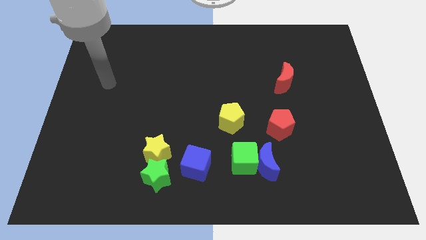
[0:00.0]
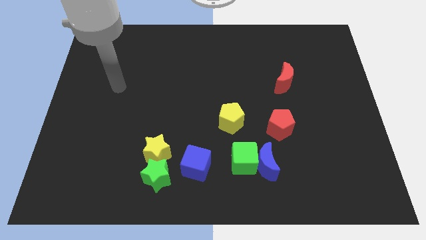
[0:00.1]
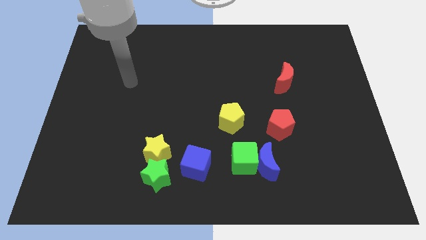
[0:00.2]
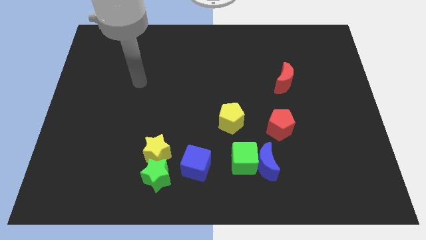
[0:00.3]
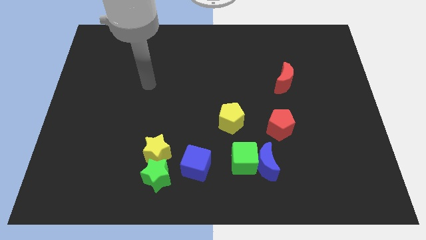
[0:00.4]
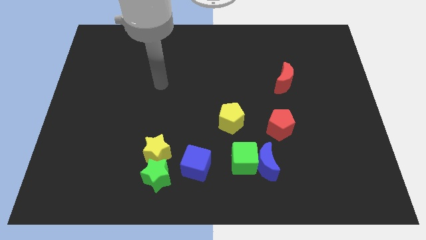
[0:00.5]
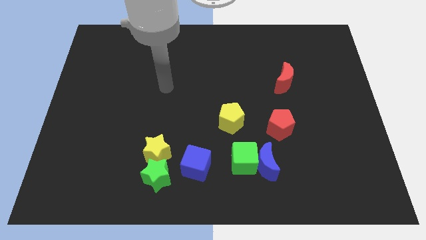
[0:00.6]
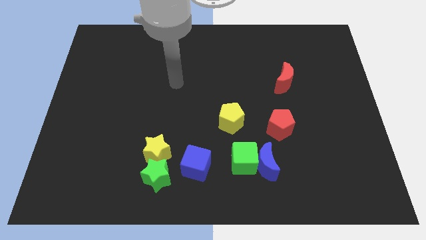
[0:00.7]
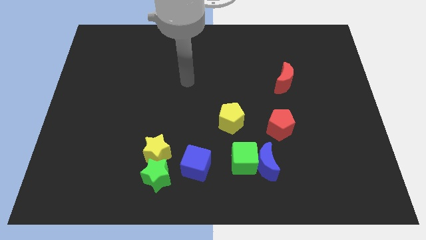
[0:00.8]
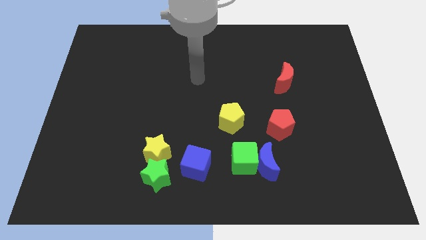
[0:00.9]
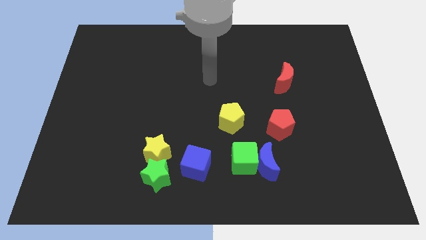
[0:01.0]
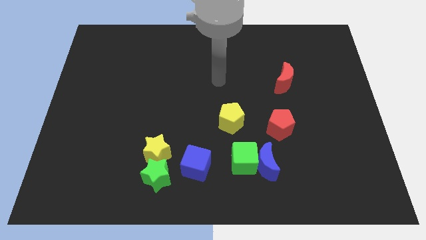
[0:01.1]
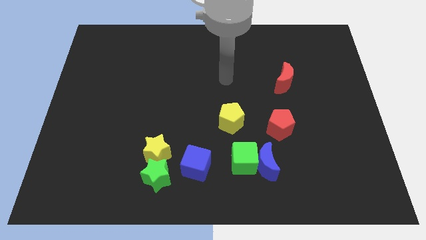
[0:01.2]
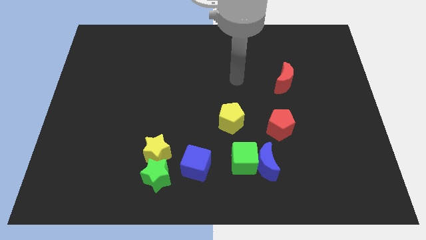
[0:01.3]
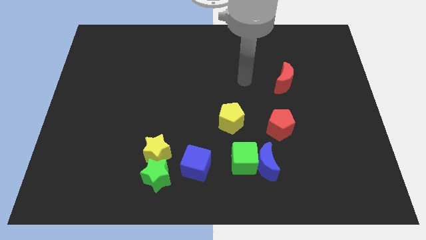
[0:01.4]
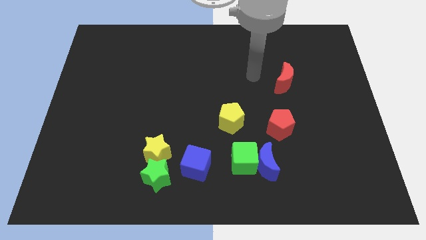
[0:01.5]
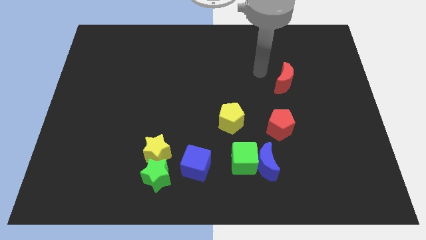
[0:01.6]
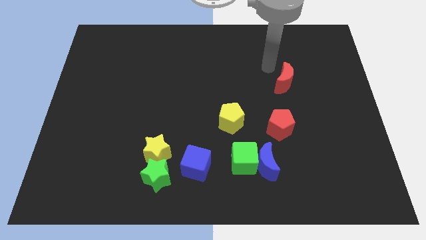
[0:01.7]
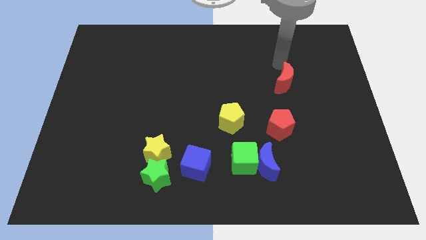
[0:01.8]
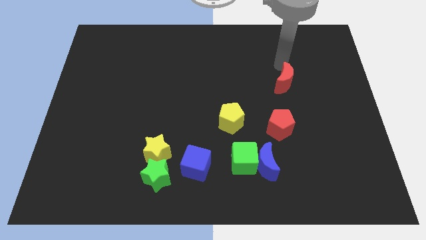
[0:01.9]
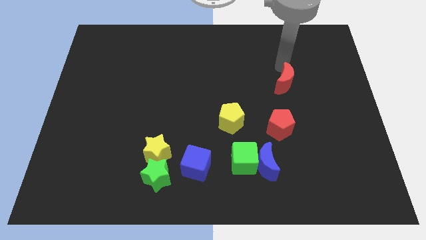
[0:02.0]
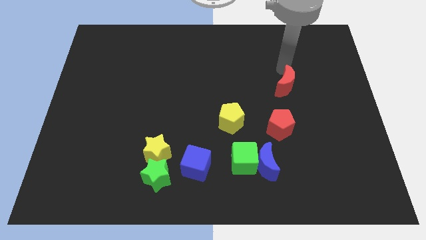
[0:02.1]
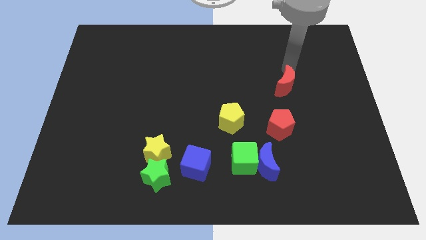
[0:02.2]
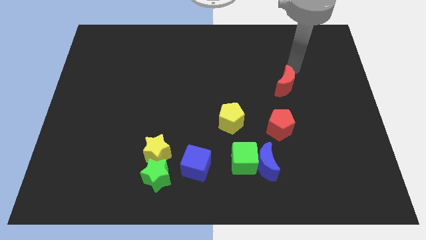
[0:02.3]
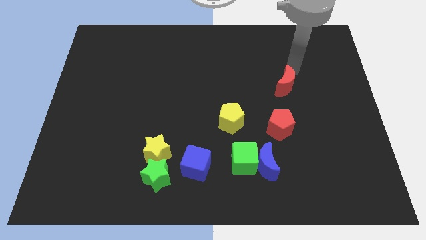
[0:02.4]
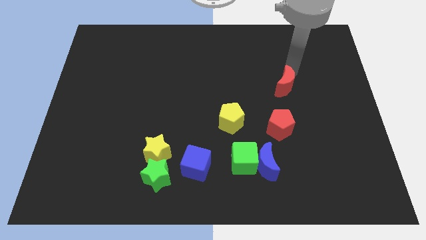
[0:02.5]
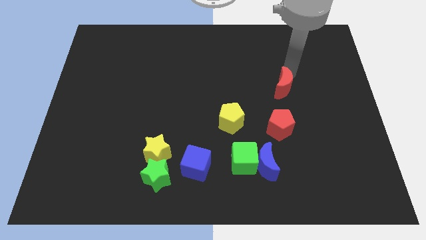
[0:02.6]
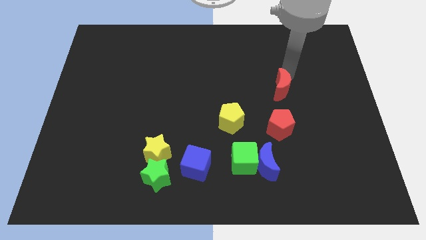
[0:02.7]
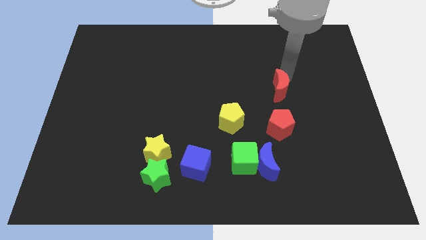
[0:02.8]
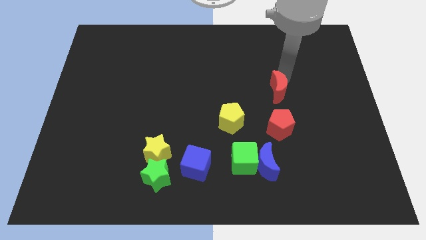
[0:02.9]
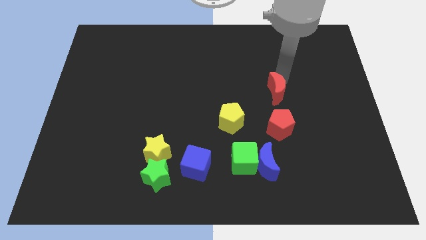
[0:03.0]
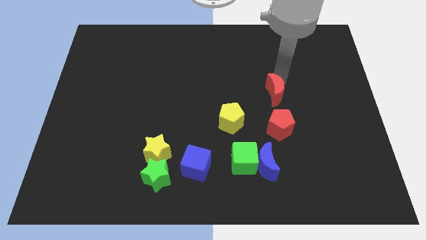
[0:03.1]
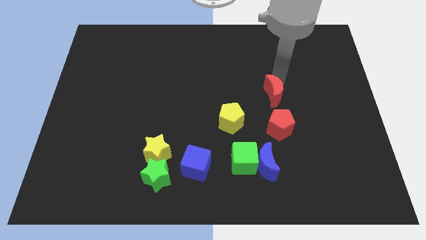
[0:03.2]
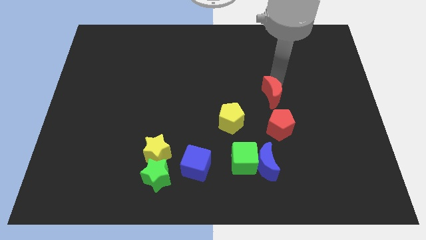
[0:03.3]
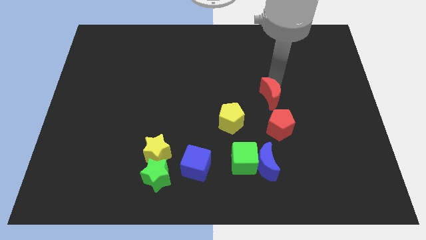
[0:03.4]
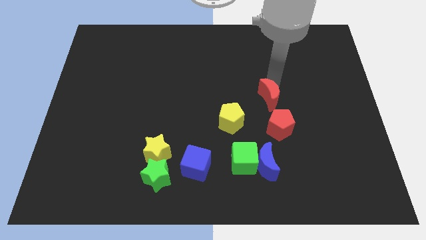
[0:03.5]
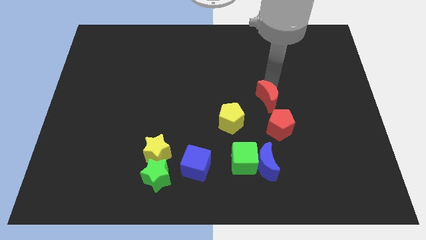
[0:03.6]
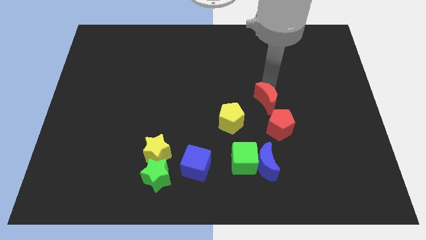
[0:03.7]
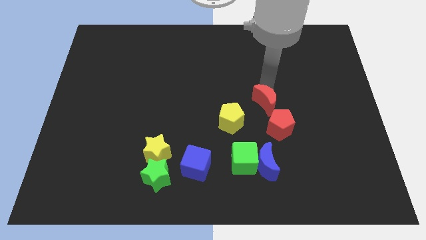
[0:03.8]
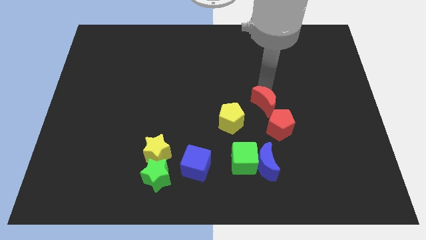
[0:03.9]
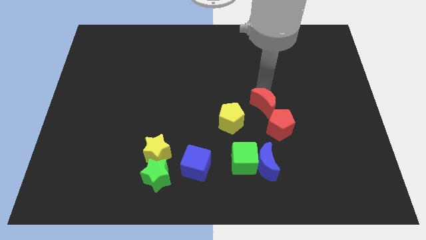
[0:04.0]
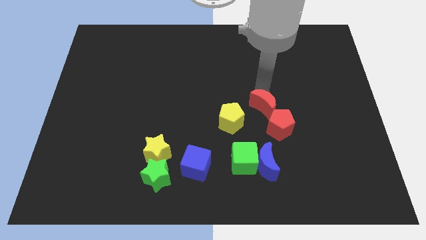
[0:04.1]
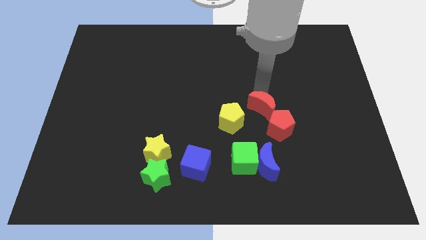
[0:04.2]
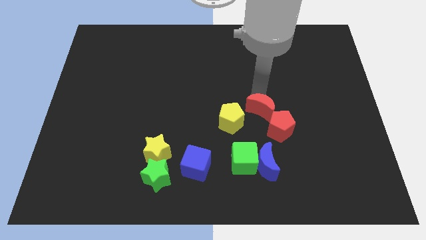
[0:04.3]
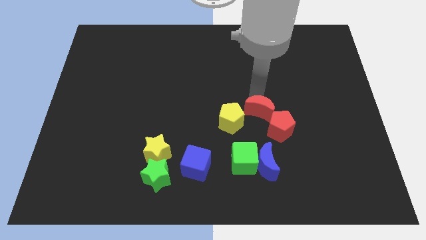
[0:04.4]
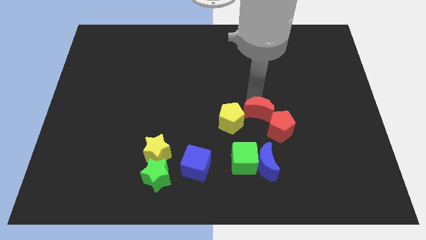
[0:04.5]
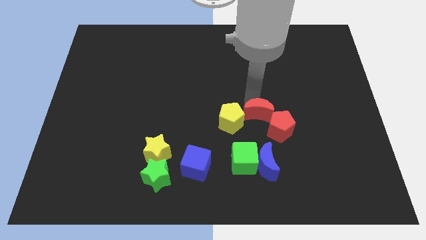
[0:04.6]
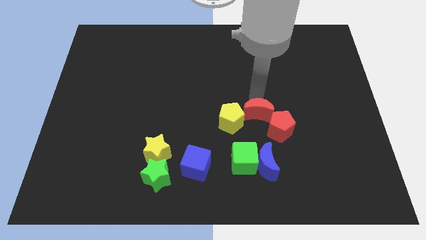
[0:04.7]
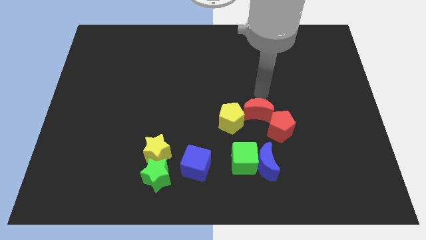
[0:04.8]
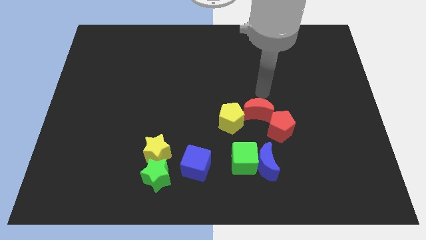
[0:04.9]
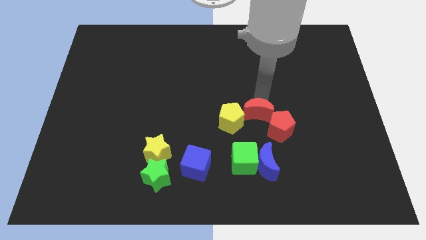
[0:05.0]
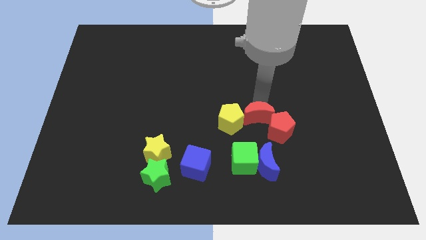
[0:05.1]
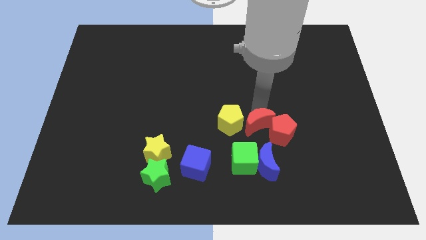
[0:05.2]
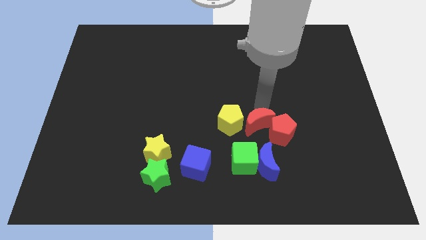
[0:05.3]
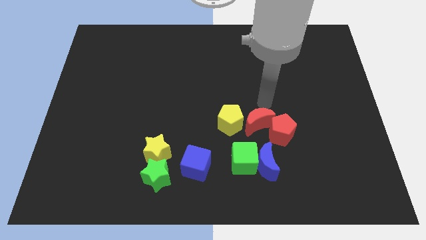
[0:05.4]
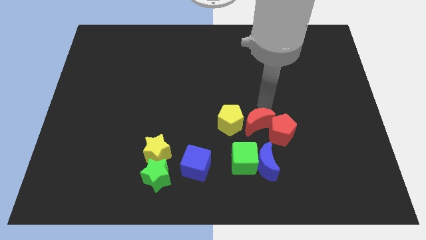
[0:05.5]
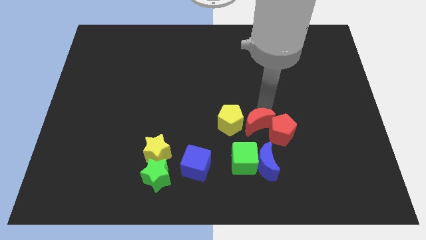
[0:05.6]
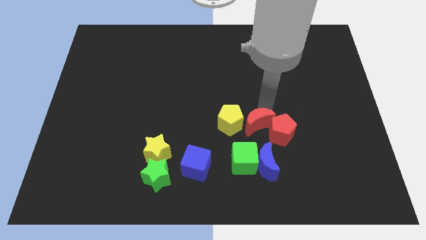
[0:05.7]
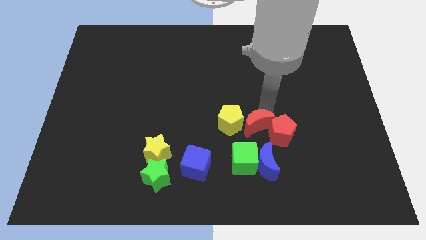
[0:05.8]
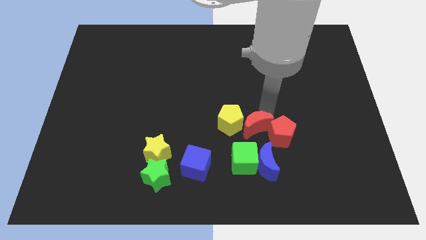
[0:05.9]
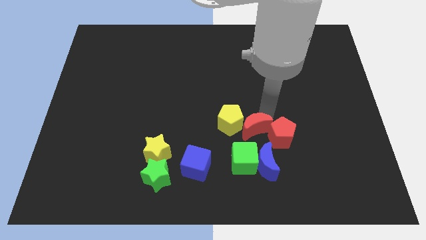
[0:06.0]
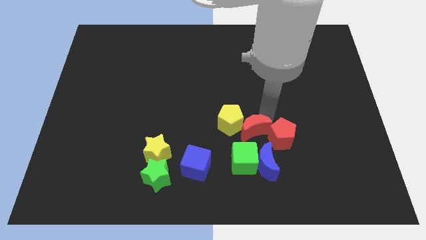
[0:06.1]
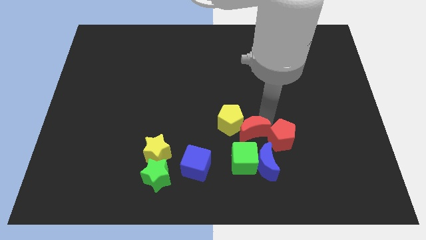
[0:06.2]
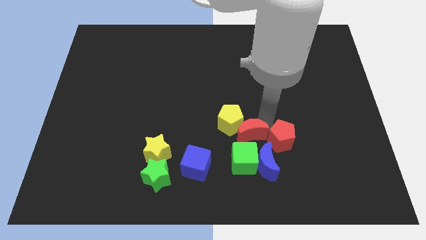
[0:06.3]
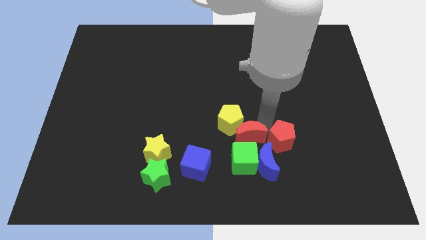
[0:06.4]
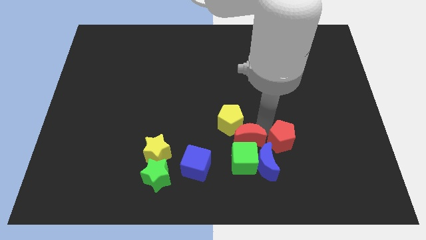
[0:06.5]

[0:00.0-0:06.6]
push the red moon next to the green cube

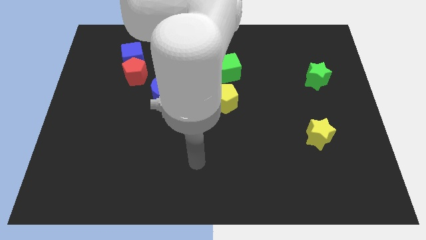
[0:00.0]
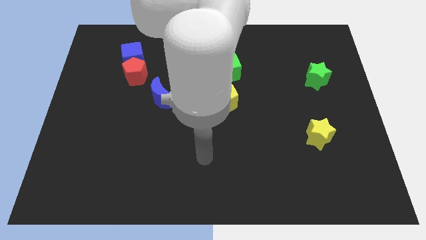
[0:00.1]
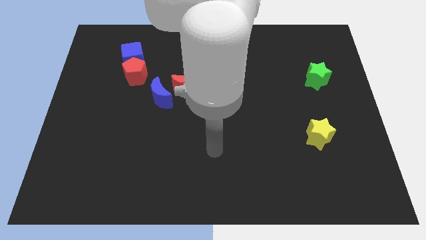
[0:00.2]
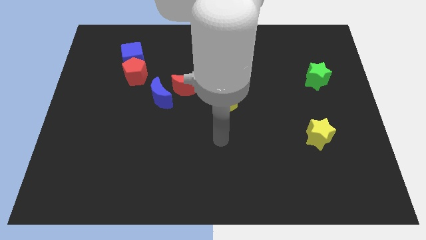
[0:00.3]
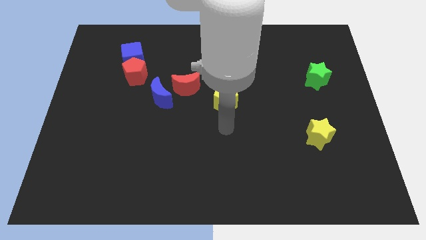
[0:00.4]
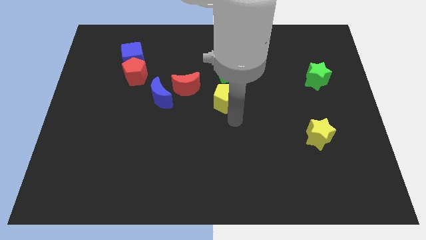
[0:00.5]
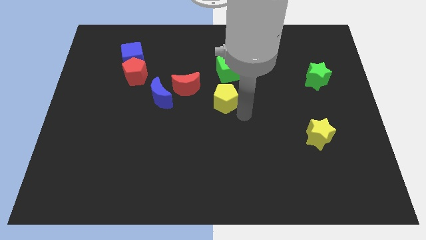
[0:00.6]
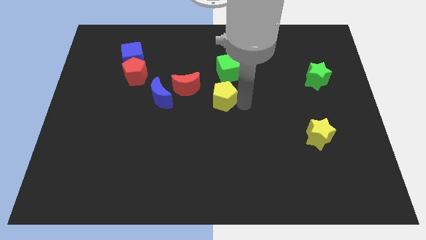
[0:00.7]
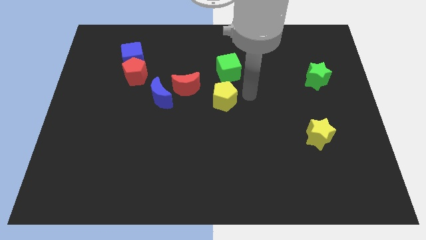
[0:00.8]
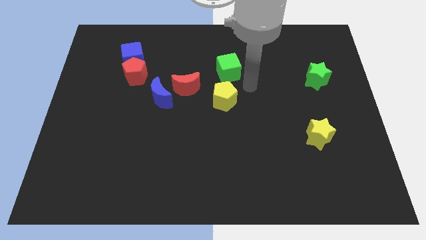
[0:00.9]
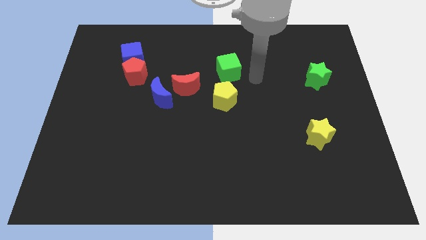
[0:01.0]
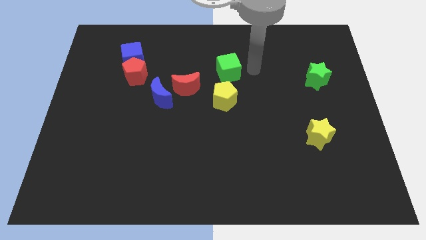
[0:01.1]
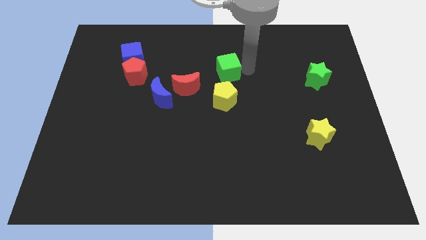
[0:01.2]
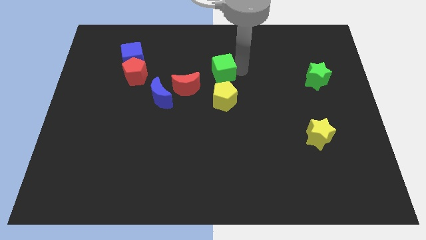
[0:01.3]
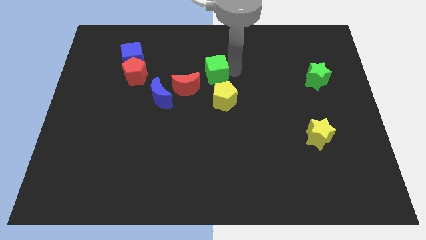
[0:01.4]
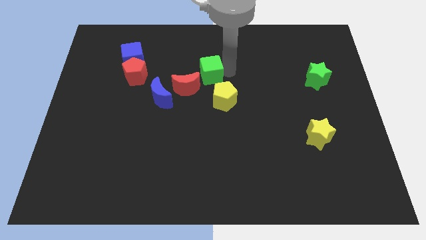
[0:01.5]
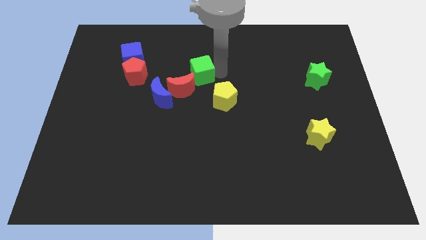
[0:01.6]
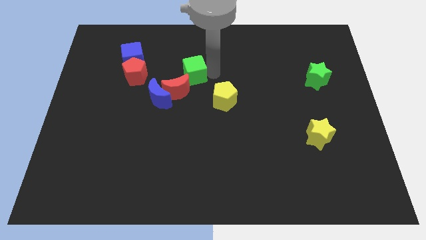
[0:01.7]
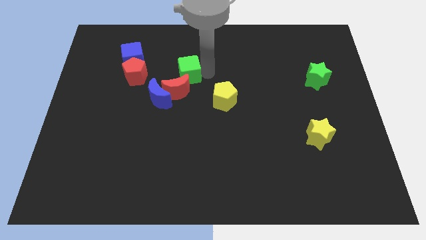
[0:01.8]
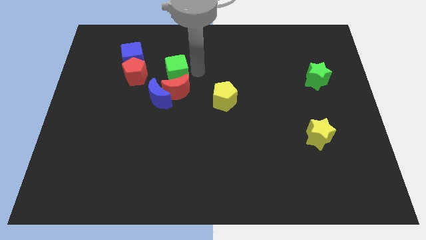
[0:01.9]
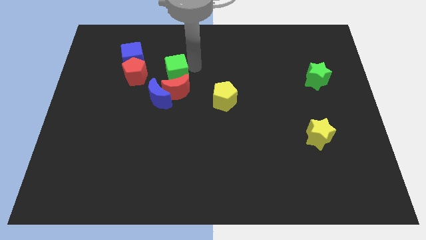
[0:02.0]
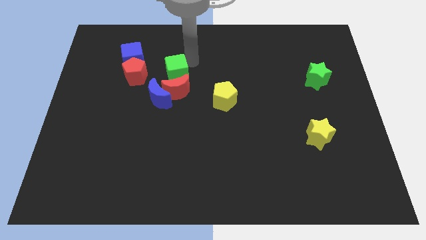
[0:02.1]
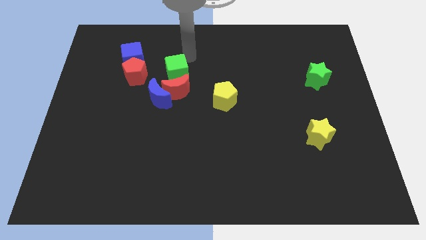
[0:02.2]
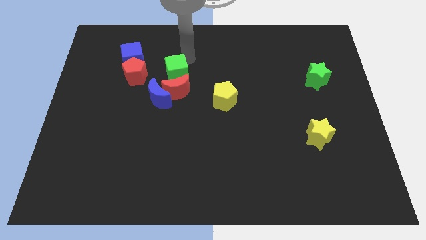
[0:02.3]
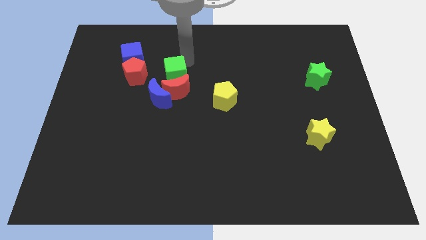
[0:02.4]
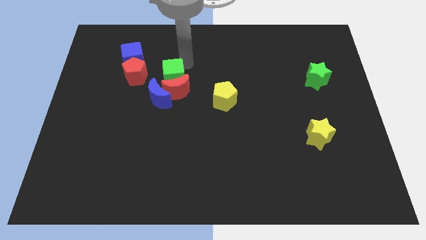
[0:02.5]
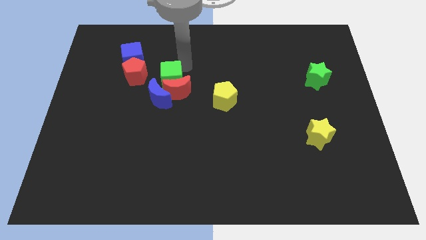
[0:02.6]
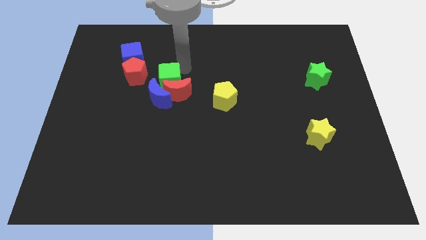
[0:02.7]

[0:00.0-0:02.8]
move the green cube next to the blue moon
